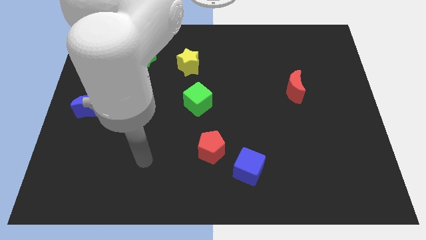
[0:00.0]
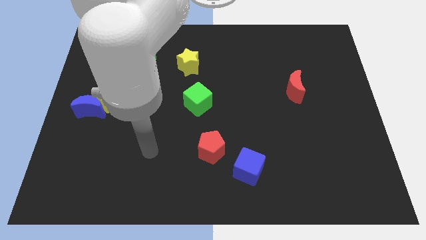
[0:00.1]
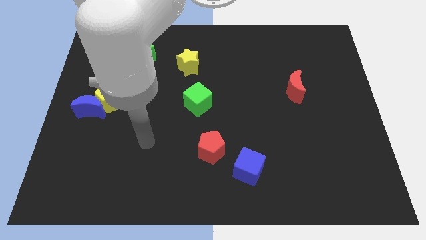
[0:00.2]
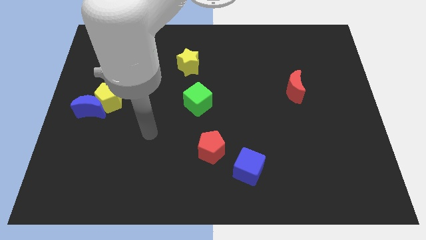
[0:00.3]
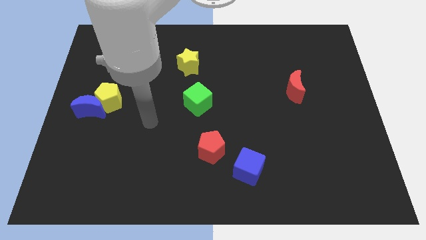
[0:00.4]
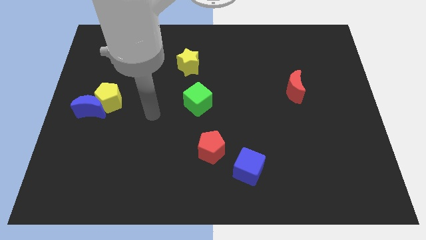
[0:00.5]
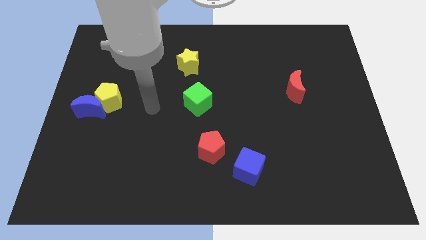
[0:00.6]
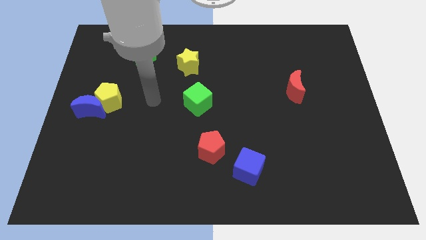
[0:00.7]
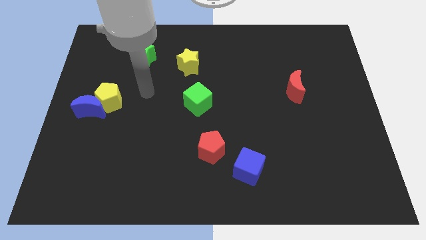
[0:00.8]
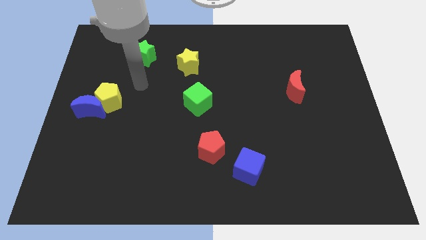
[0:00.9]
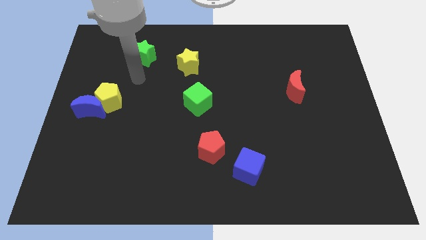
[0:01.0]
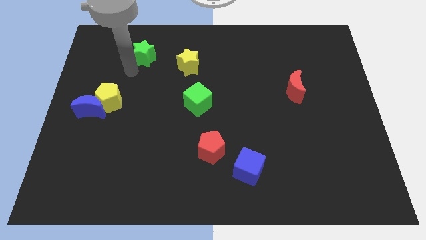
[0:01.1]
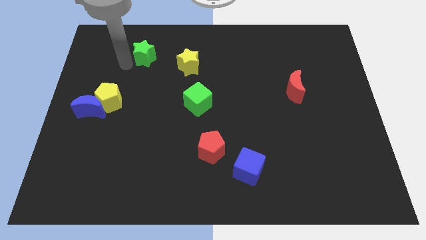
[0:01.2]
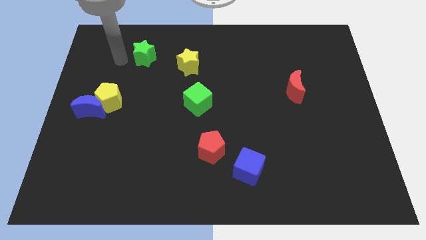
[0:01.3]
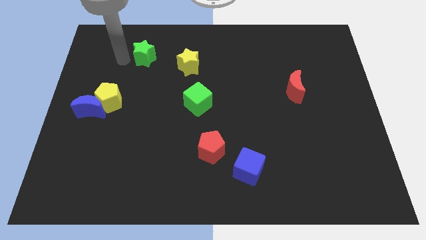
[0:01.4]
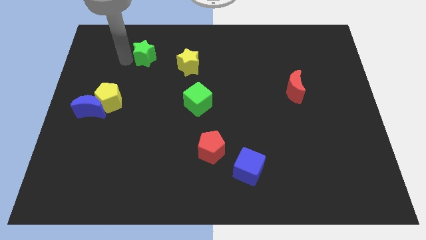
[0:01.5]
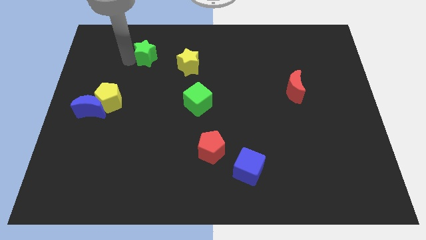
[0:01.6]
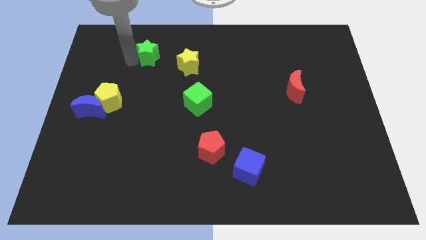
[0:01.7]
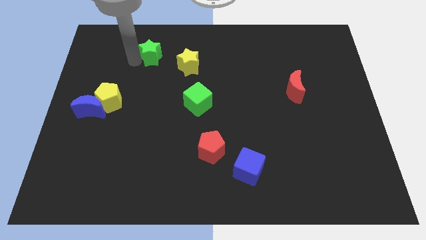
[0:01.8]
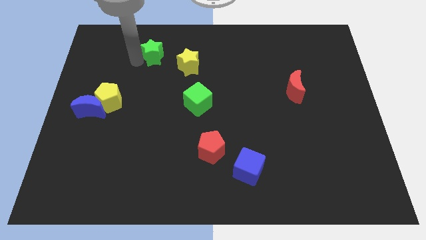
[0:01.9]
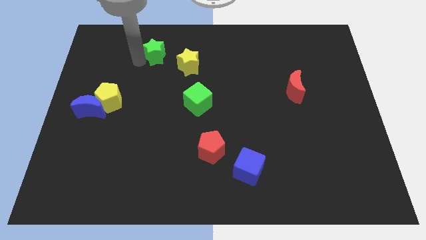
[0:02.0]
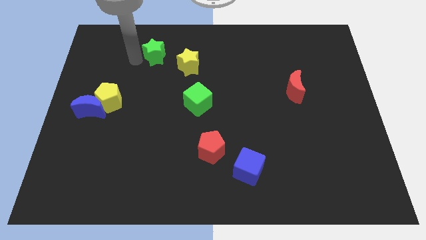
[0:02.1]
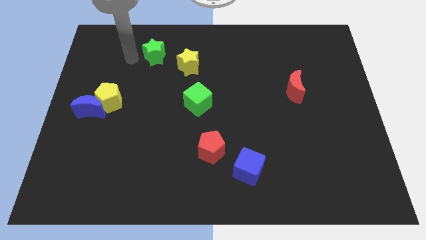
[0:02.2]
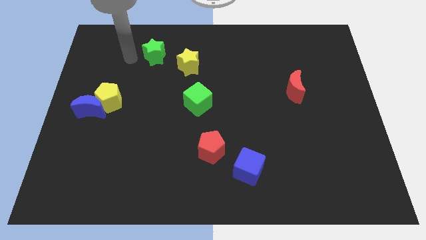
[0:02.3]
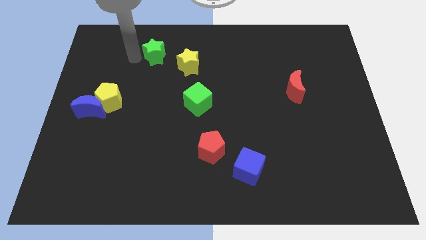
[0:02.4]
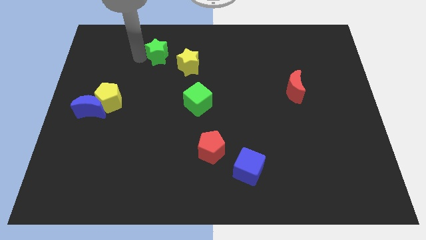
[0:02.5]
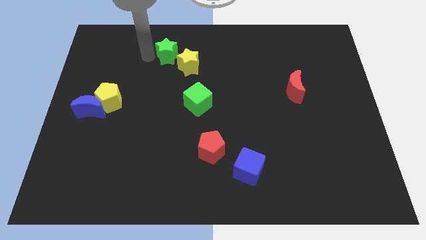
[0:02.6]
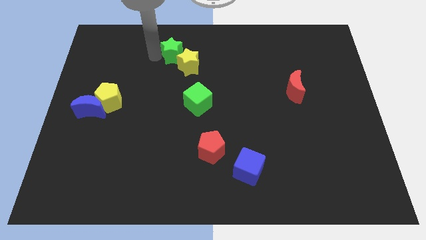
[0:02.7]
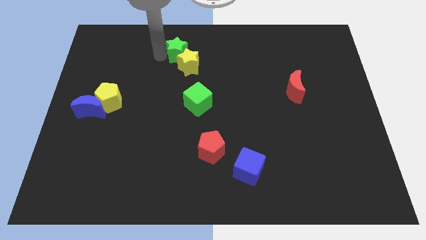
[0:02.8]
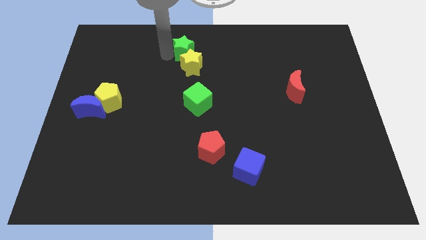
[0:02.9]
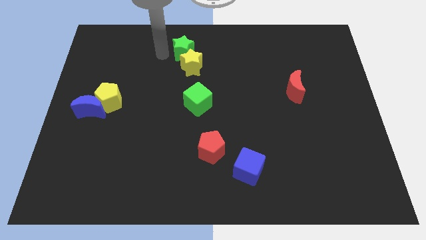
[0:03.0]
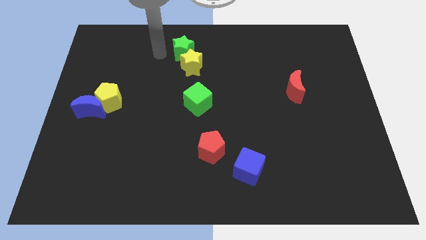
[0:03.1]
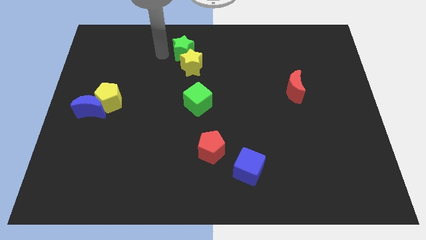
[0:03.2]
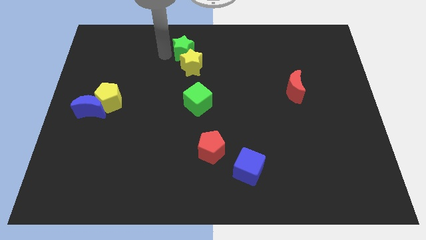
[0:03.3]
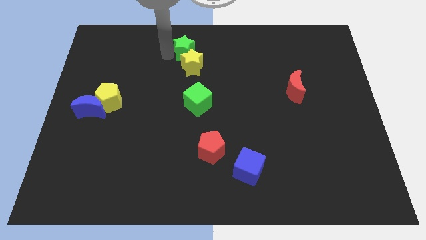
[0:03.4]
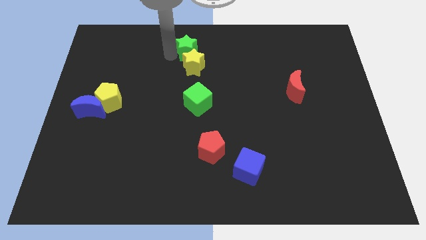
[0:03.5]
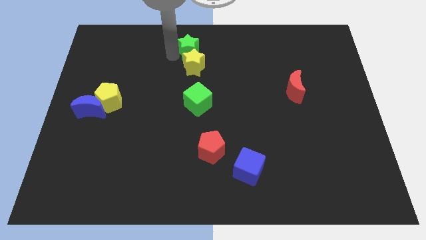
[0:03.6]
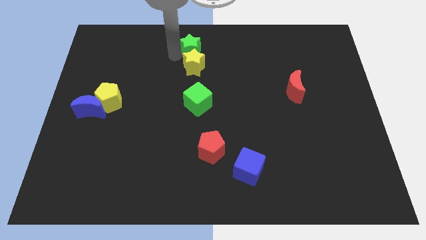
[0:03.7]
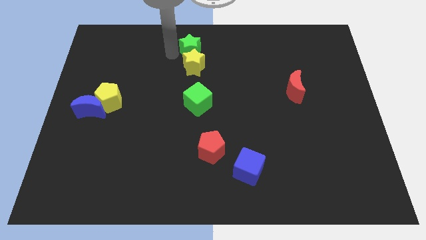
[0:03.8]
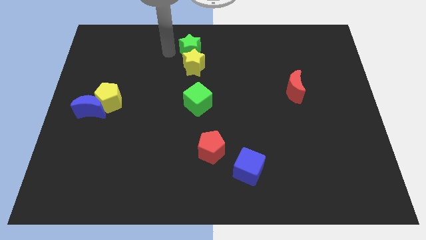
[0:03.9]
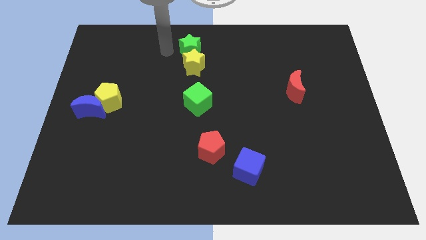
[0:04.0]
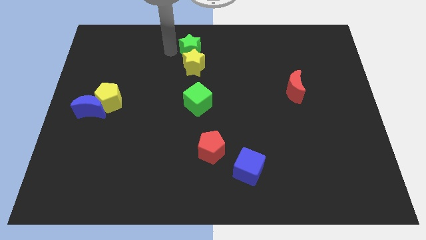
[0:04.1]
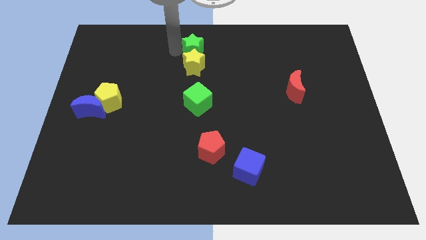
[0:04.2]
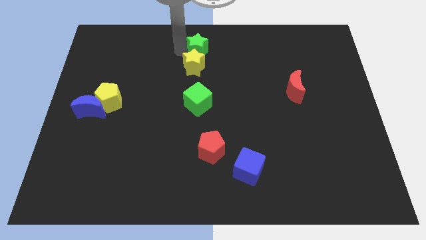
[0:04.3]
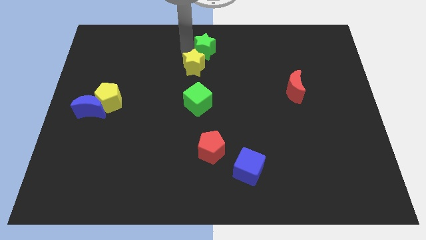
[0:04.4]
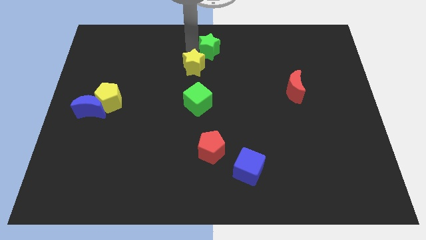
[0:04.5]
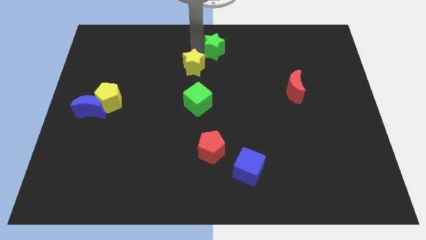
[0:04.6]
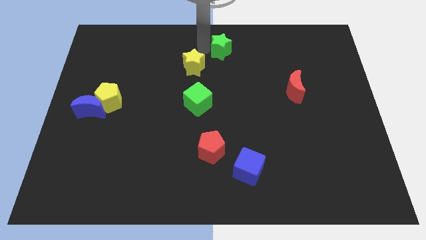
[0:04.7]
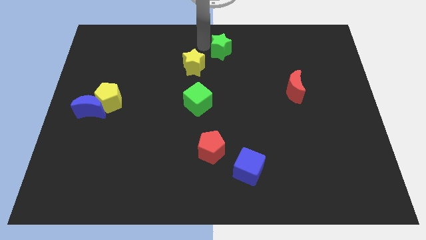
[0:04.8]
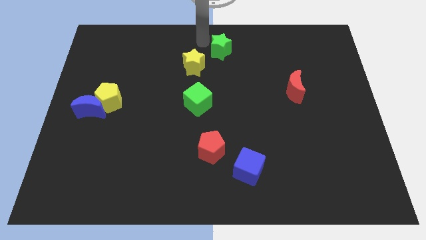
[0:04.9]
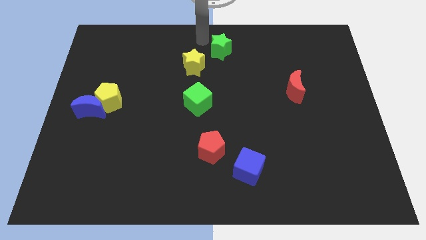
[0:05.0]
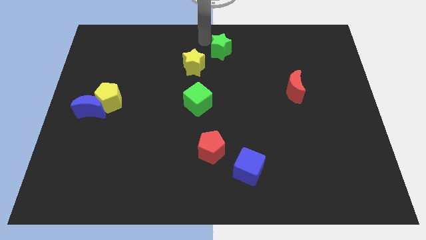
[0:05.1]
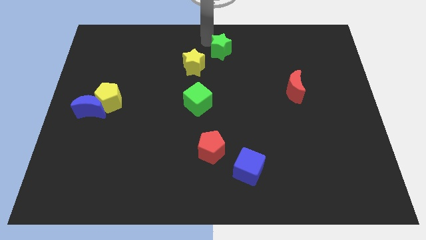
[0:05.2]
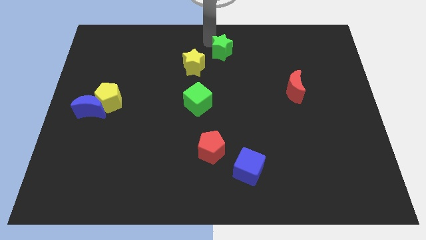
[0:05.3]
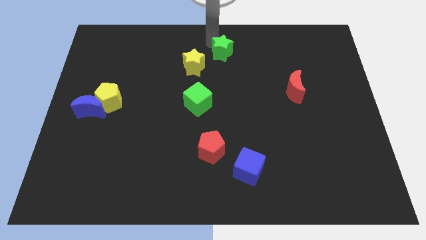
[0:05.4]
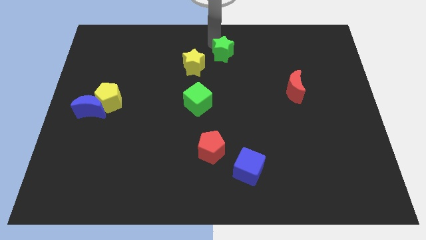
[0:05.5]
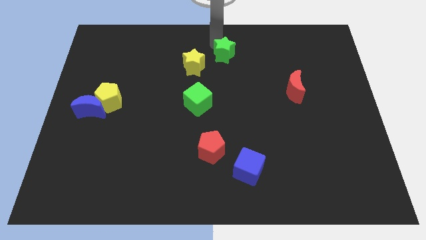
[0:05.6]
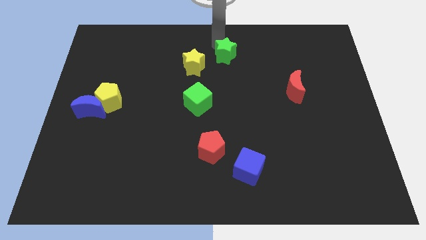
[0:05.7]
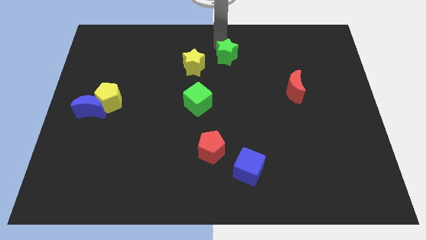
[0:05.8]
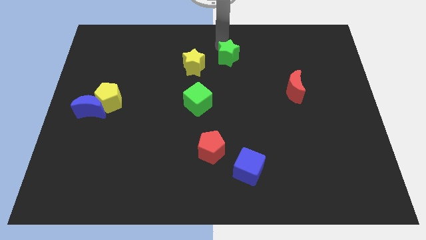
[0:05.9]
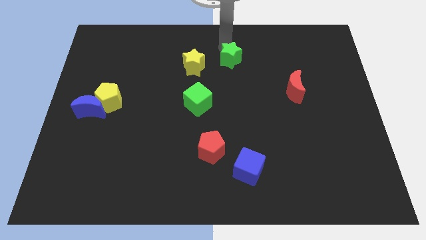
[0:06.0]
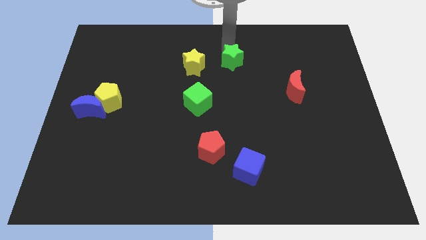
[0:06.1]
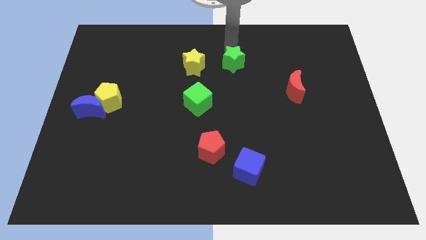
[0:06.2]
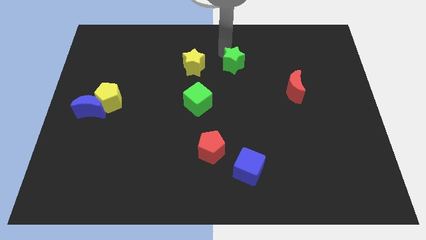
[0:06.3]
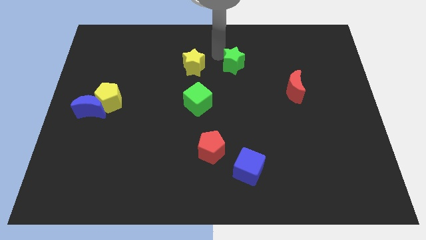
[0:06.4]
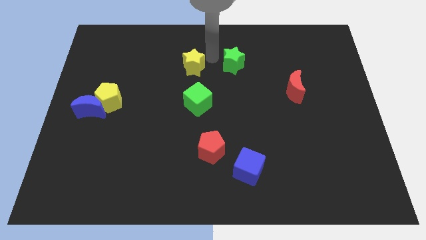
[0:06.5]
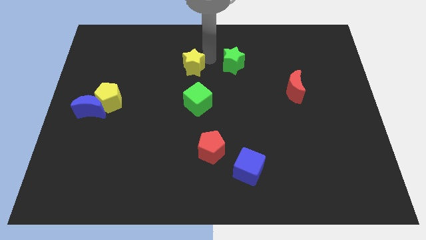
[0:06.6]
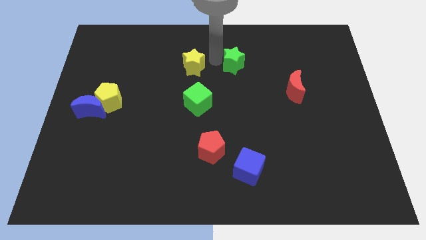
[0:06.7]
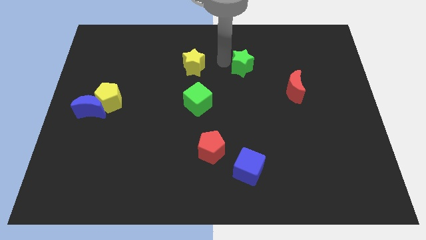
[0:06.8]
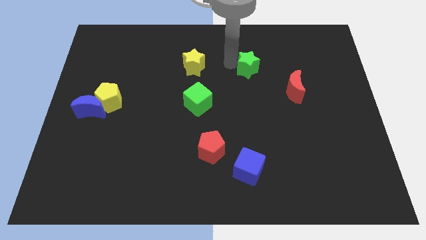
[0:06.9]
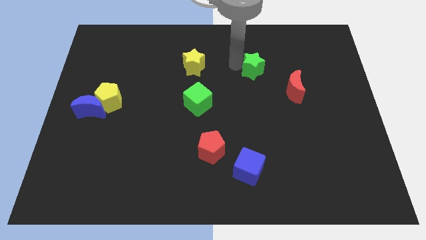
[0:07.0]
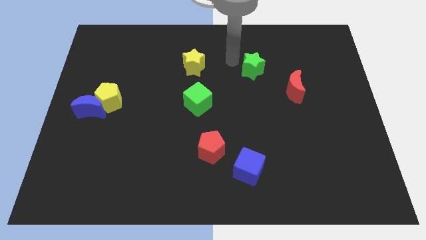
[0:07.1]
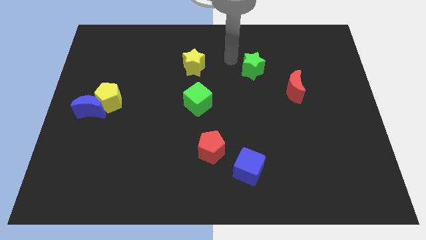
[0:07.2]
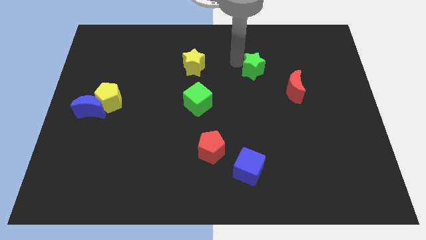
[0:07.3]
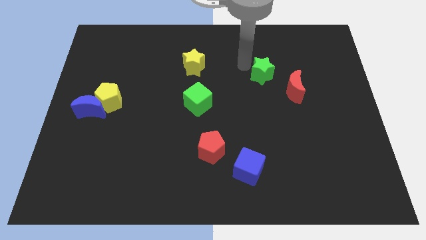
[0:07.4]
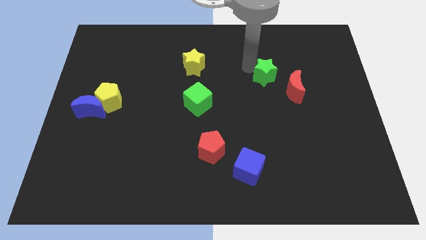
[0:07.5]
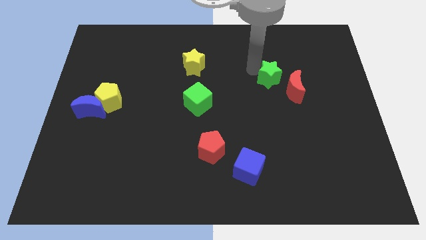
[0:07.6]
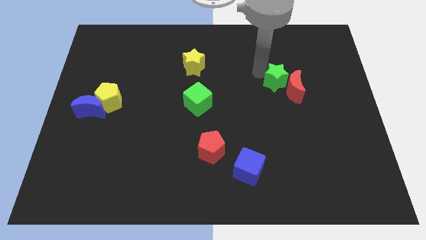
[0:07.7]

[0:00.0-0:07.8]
slide the green star next to the red moon
